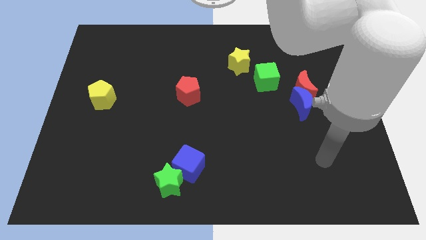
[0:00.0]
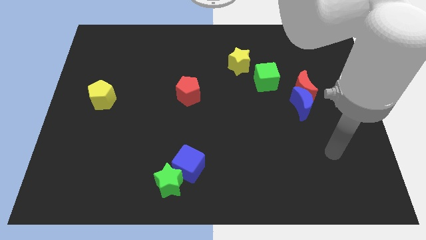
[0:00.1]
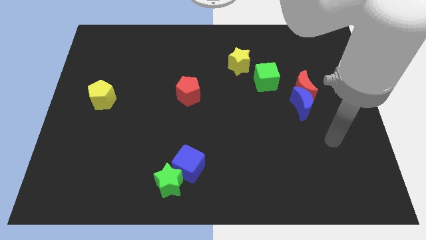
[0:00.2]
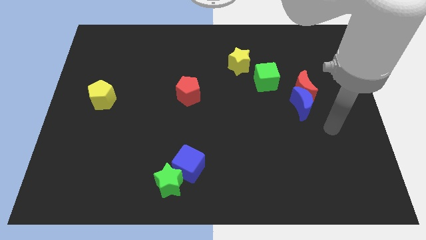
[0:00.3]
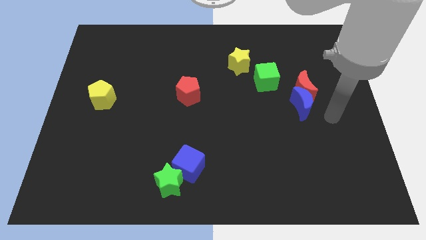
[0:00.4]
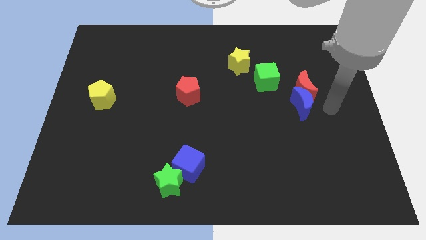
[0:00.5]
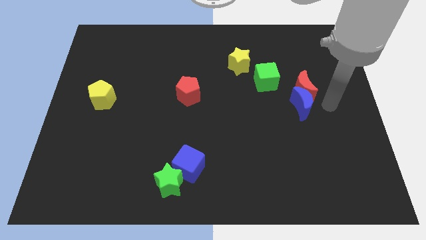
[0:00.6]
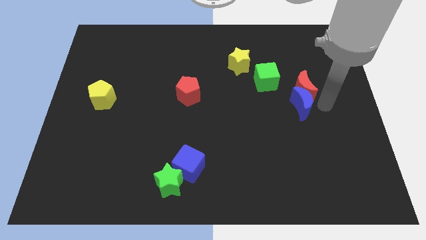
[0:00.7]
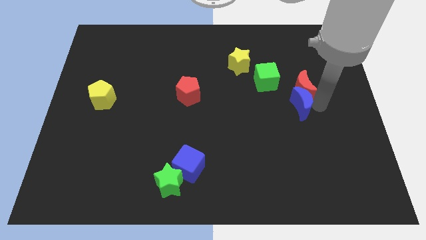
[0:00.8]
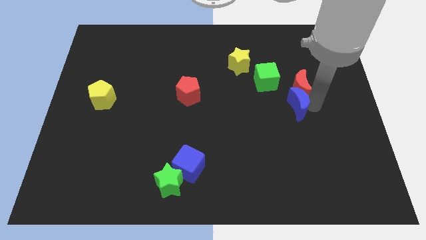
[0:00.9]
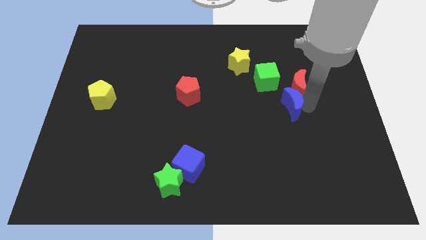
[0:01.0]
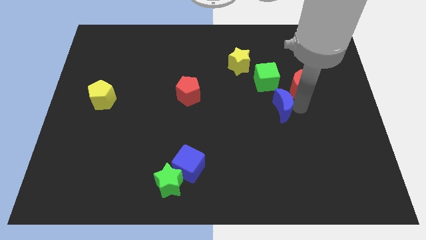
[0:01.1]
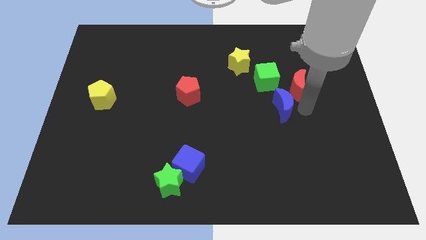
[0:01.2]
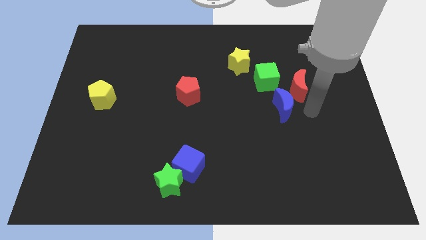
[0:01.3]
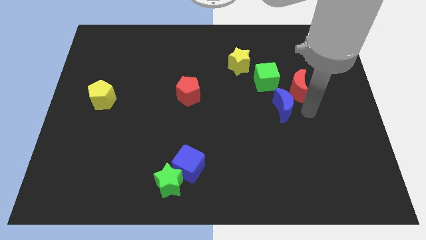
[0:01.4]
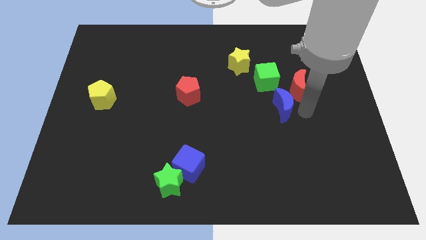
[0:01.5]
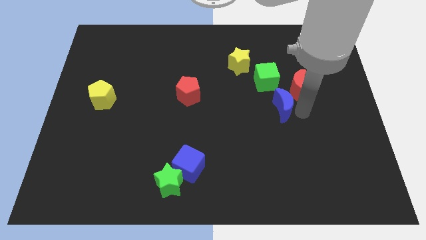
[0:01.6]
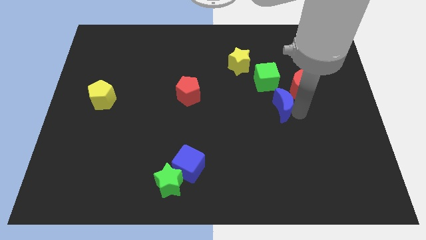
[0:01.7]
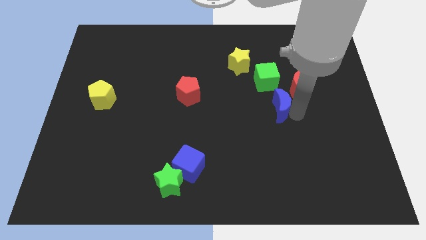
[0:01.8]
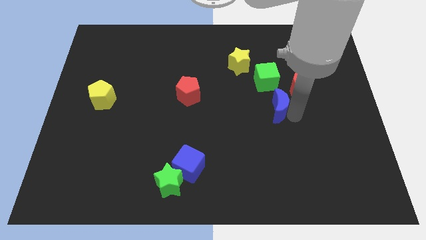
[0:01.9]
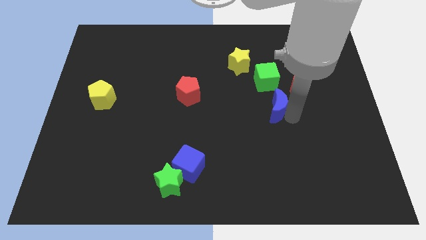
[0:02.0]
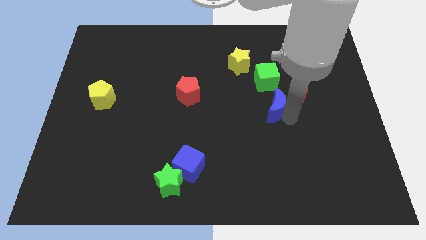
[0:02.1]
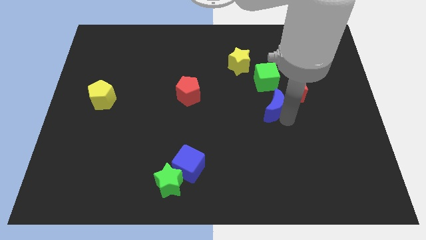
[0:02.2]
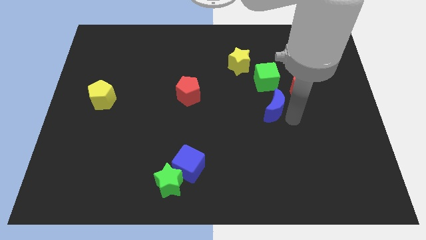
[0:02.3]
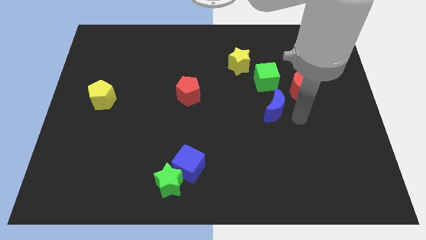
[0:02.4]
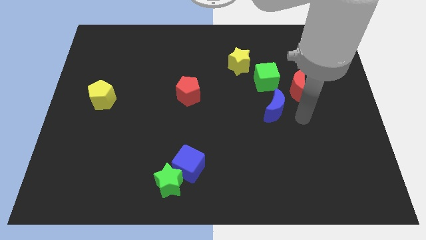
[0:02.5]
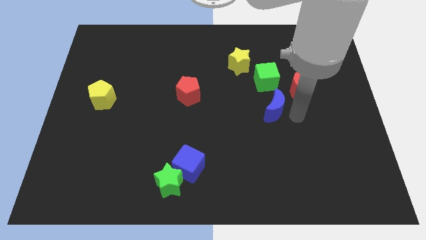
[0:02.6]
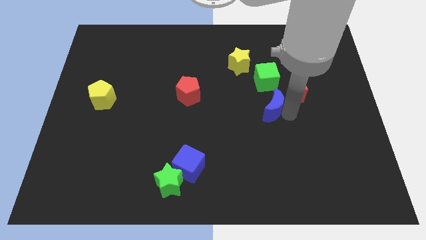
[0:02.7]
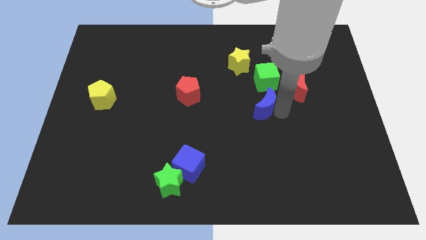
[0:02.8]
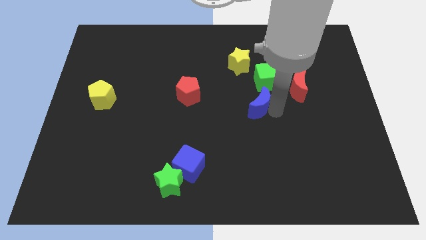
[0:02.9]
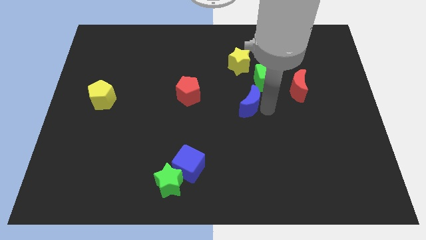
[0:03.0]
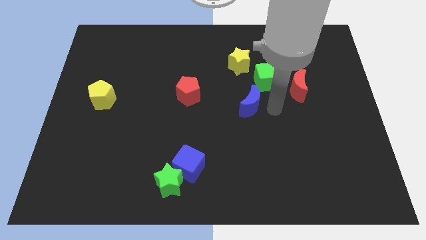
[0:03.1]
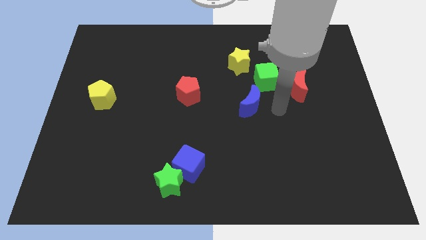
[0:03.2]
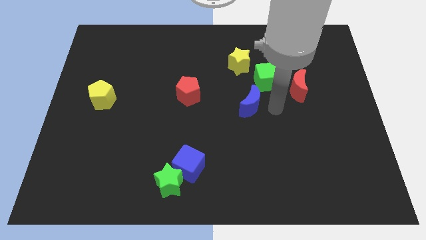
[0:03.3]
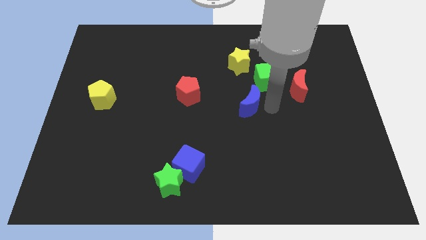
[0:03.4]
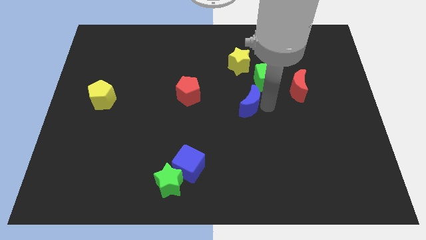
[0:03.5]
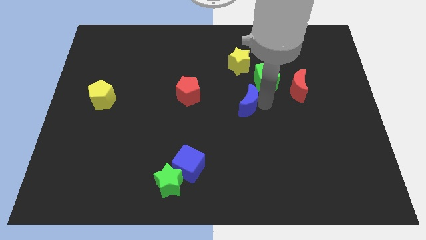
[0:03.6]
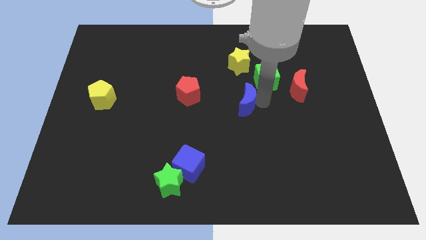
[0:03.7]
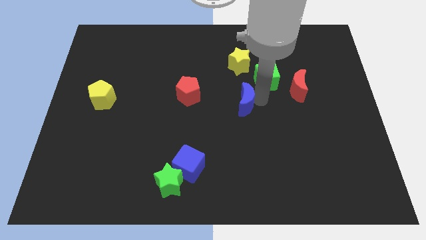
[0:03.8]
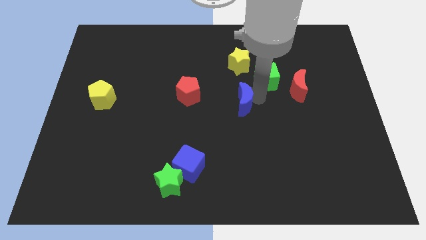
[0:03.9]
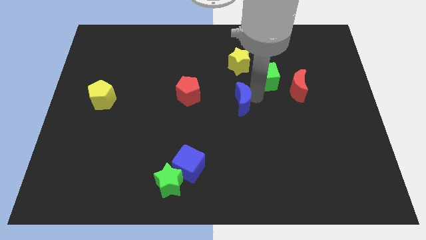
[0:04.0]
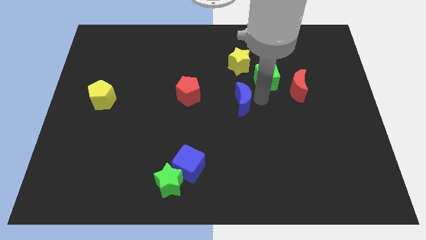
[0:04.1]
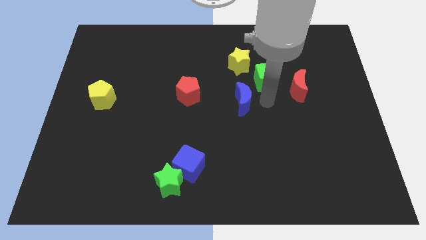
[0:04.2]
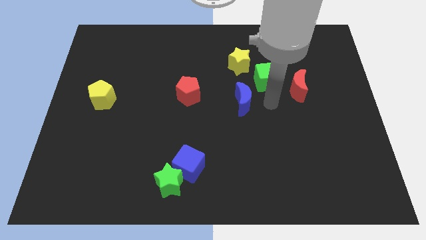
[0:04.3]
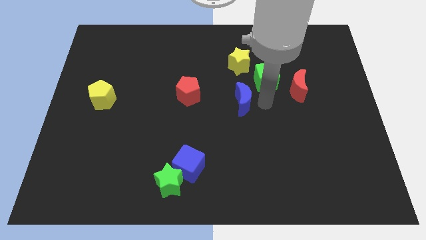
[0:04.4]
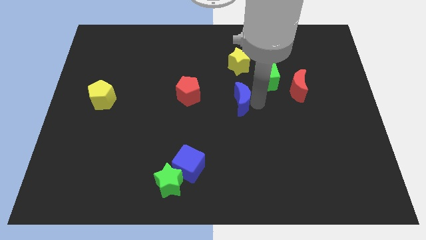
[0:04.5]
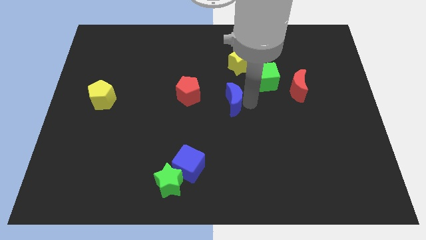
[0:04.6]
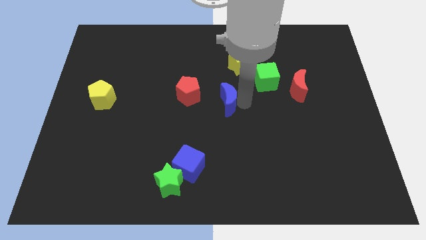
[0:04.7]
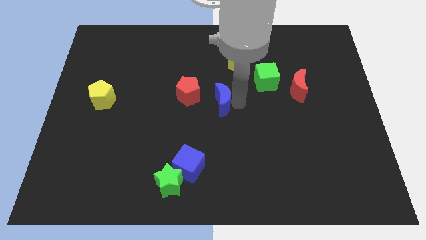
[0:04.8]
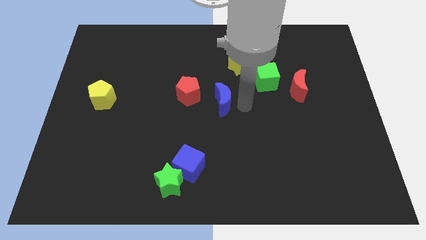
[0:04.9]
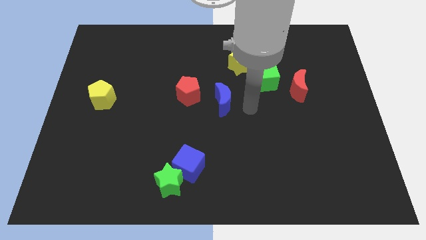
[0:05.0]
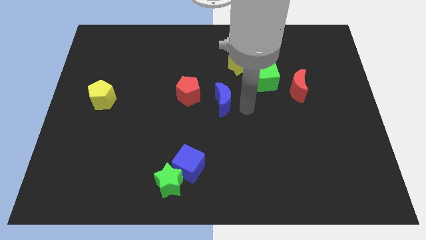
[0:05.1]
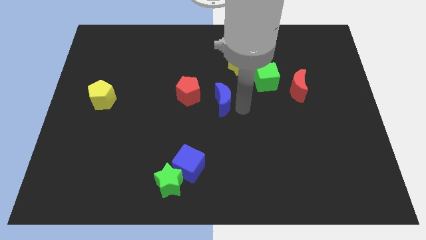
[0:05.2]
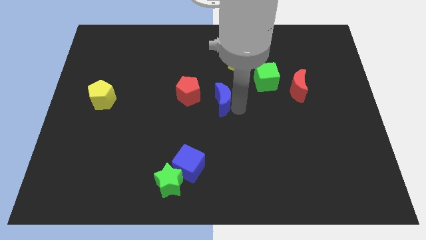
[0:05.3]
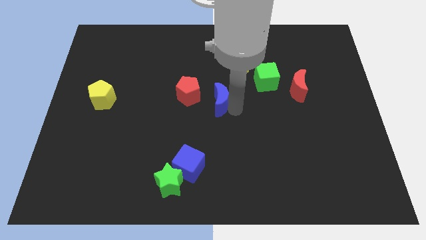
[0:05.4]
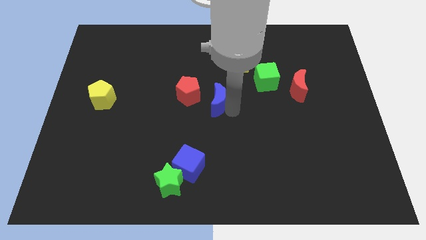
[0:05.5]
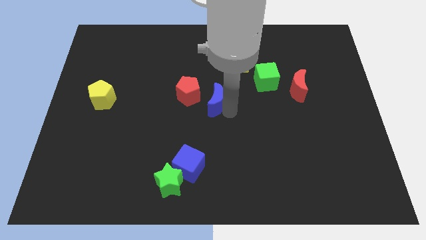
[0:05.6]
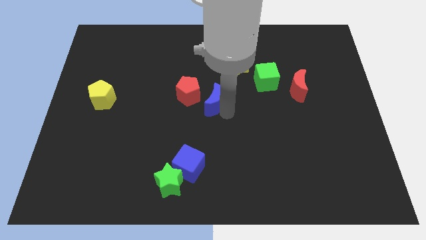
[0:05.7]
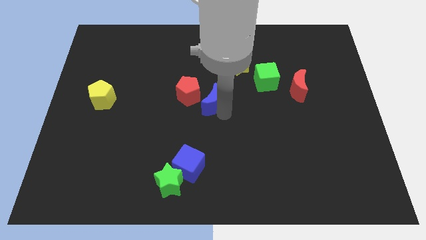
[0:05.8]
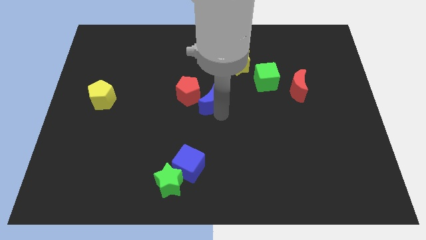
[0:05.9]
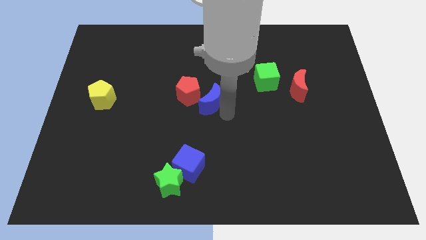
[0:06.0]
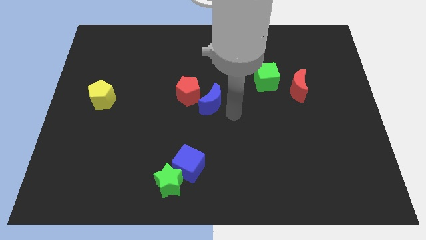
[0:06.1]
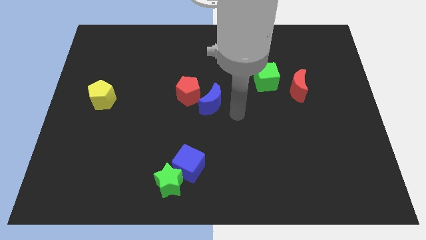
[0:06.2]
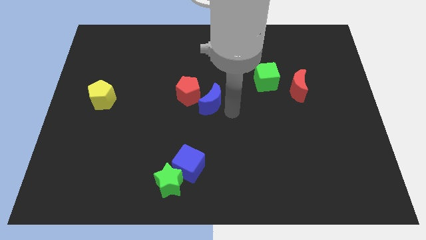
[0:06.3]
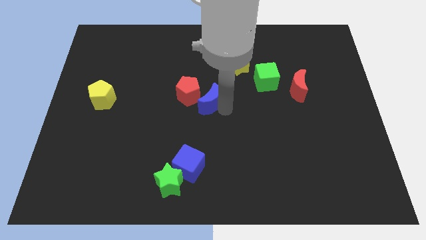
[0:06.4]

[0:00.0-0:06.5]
push the blue moon towards the red pentagon

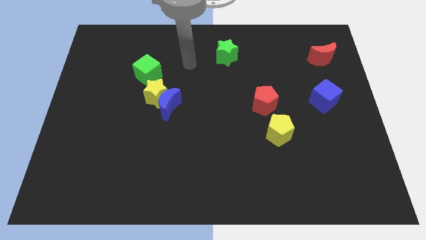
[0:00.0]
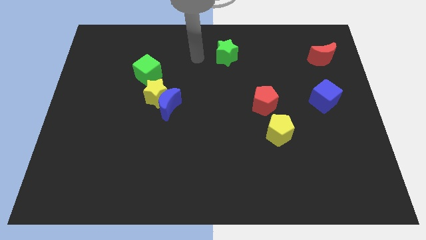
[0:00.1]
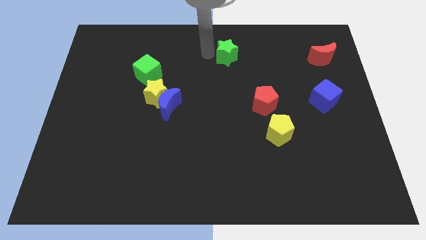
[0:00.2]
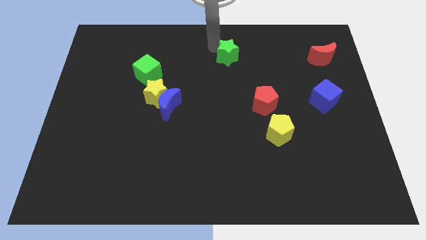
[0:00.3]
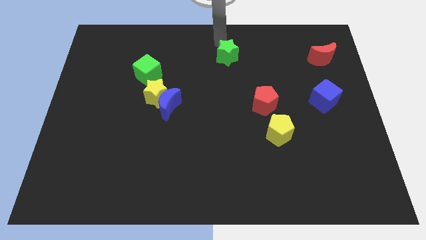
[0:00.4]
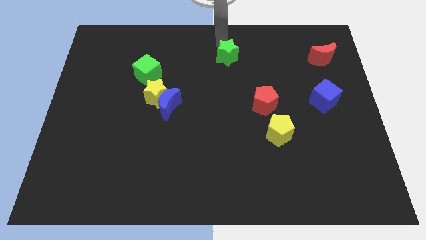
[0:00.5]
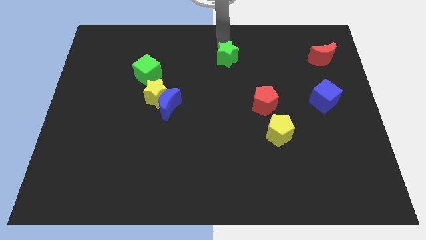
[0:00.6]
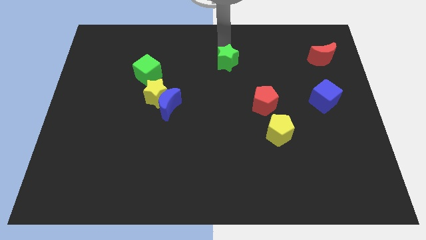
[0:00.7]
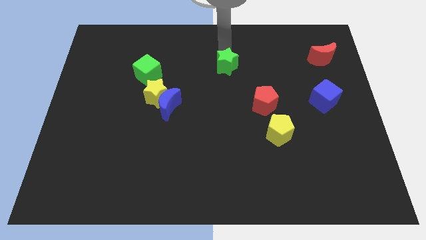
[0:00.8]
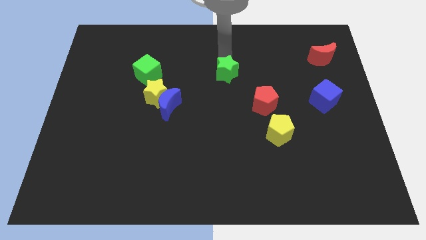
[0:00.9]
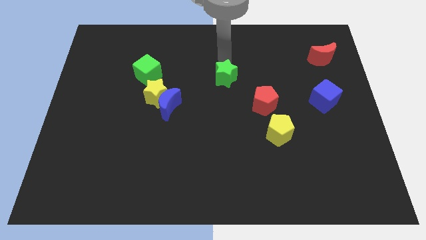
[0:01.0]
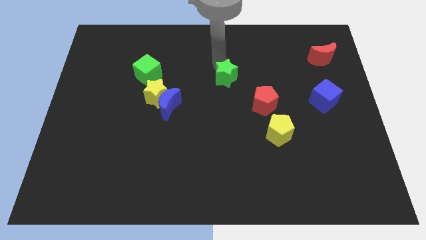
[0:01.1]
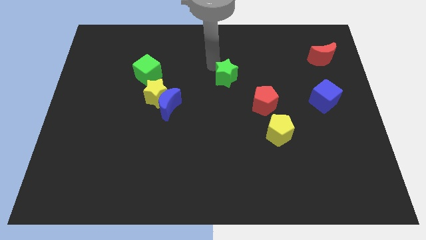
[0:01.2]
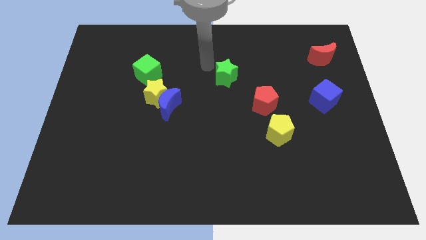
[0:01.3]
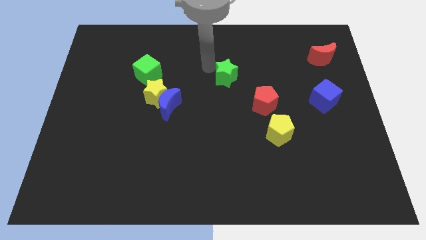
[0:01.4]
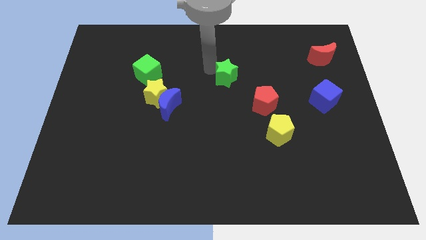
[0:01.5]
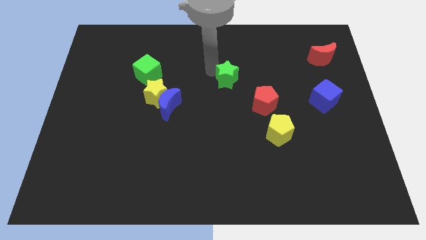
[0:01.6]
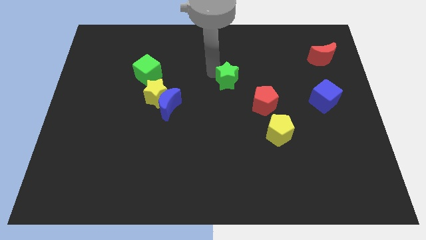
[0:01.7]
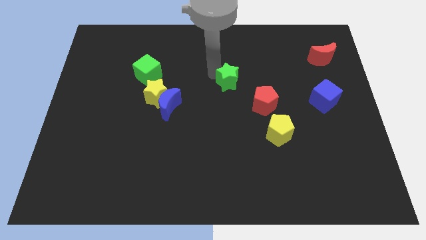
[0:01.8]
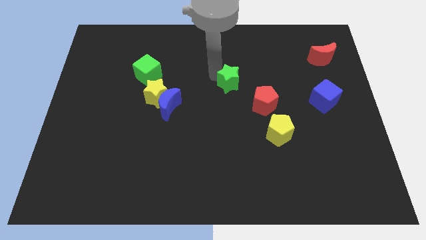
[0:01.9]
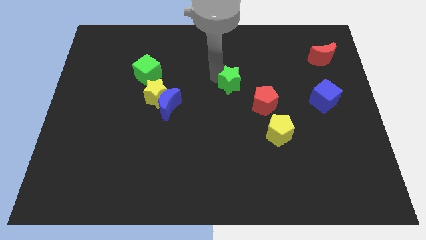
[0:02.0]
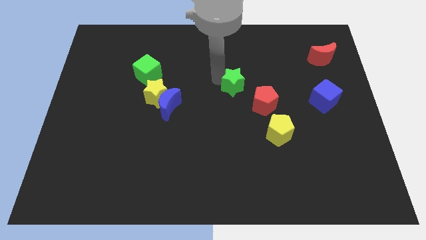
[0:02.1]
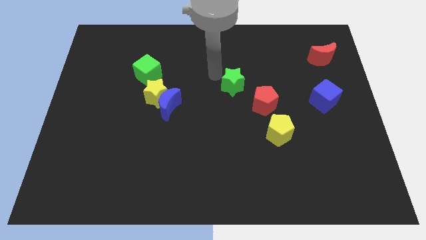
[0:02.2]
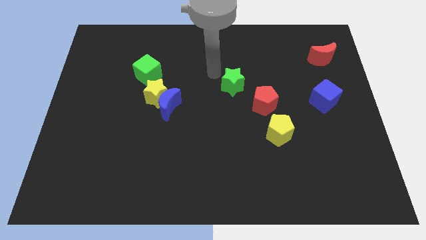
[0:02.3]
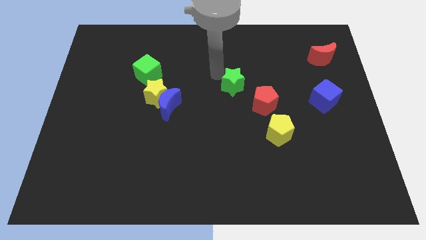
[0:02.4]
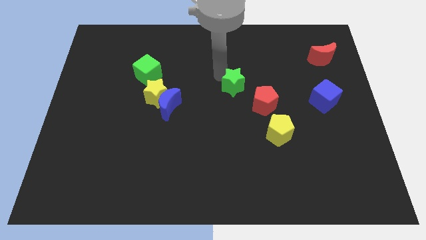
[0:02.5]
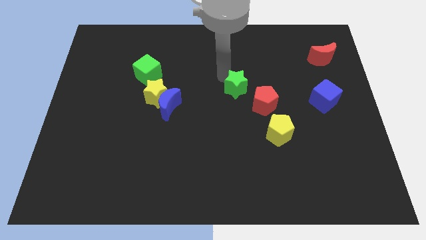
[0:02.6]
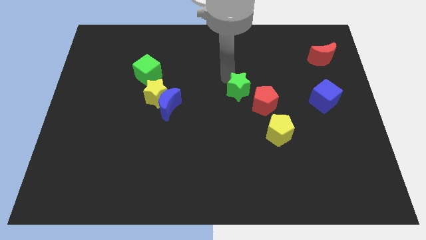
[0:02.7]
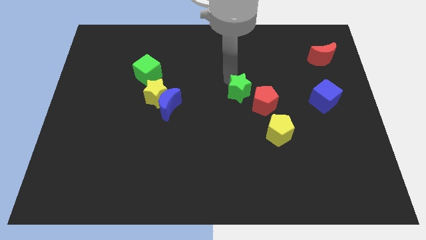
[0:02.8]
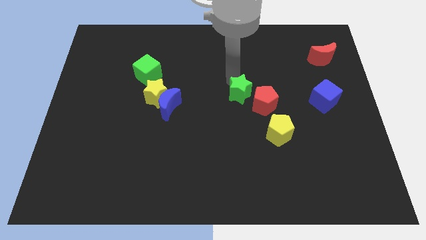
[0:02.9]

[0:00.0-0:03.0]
move the green star towards the red pentagon
